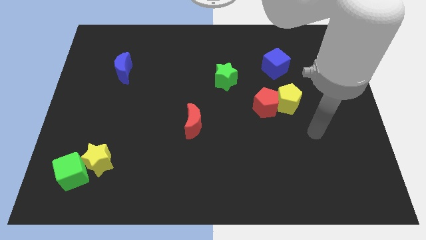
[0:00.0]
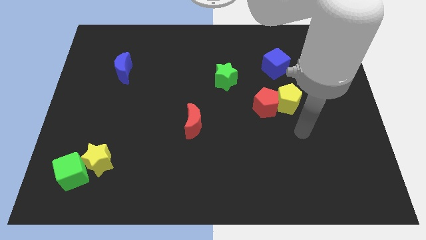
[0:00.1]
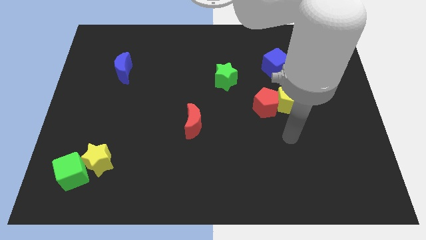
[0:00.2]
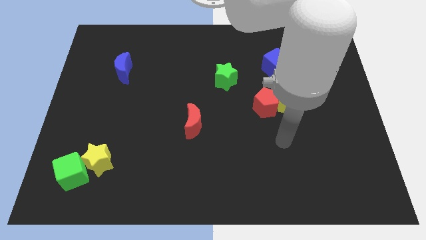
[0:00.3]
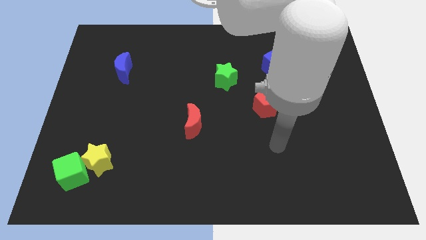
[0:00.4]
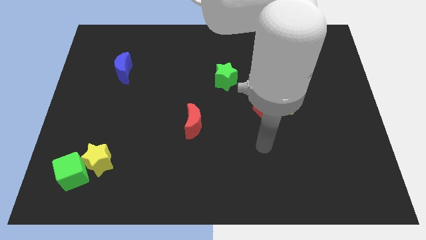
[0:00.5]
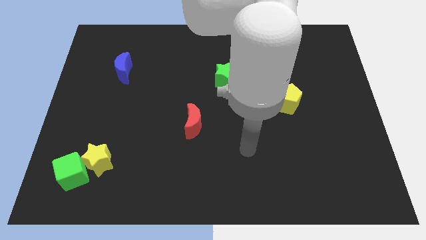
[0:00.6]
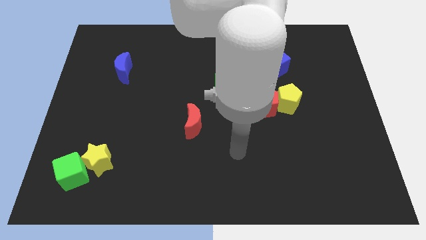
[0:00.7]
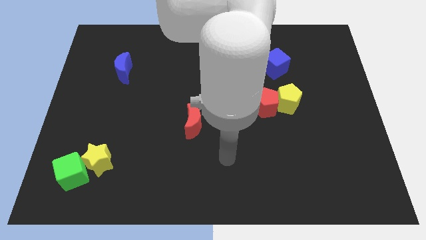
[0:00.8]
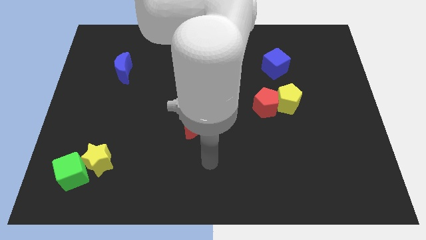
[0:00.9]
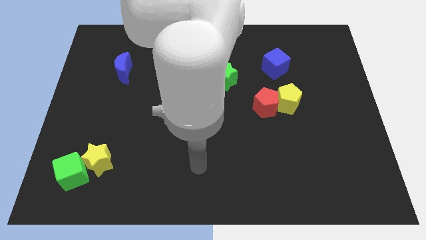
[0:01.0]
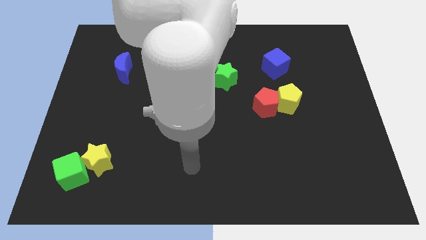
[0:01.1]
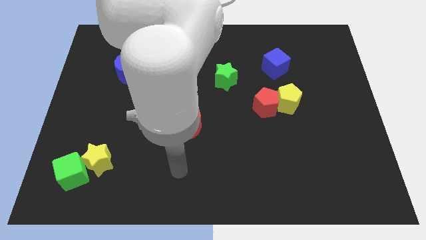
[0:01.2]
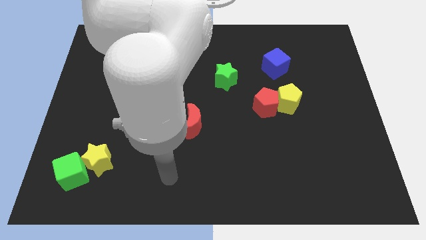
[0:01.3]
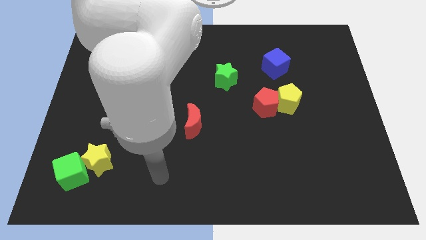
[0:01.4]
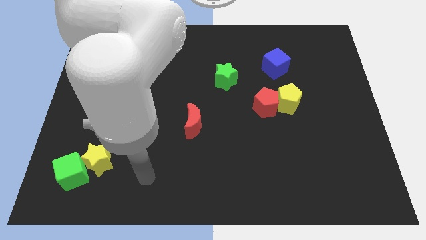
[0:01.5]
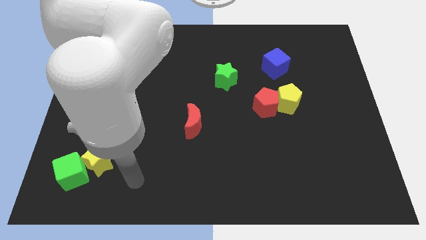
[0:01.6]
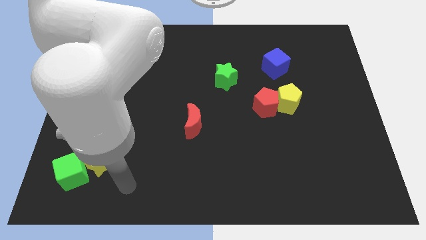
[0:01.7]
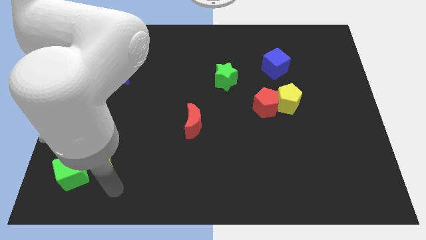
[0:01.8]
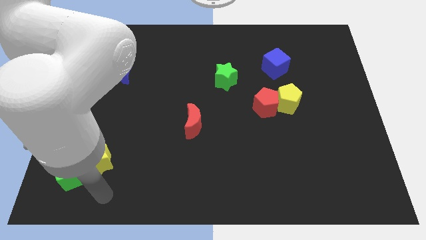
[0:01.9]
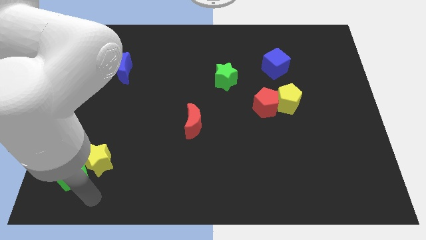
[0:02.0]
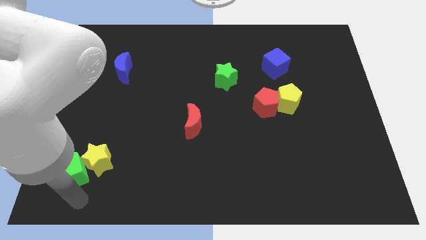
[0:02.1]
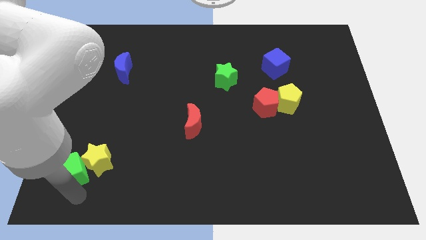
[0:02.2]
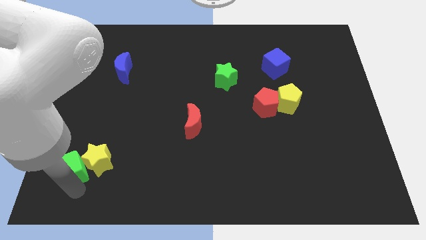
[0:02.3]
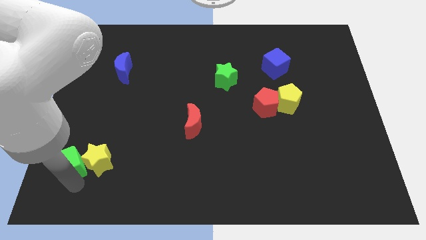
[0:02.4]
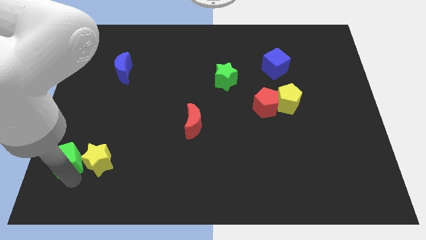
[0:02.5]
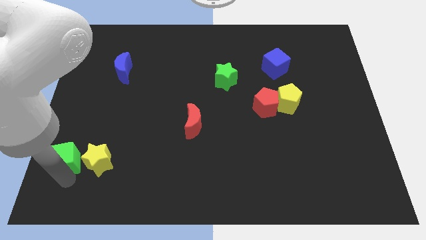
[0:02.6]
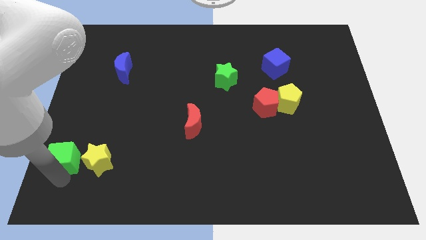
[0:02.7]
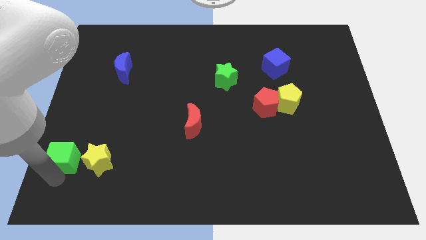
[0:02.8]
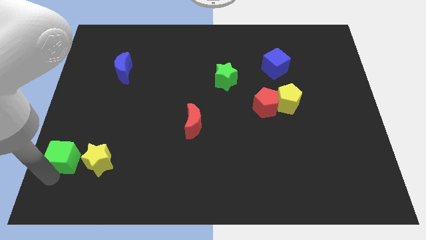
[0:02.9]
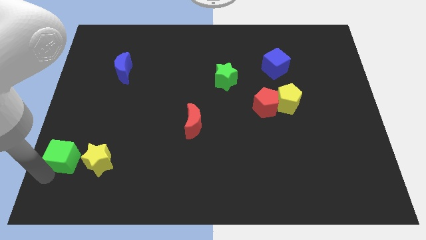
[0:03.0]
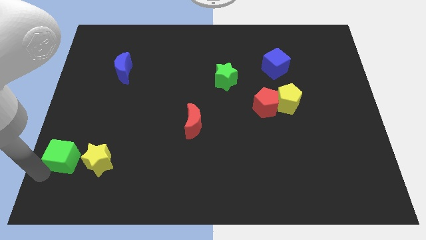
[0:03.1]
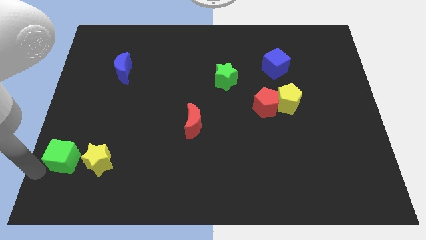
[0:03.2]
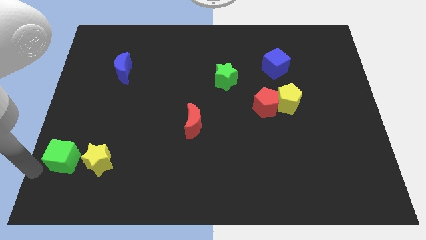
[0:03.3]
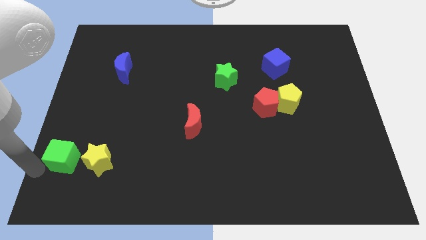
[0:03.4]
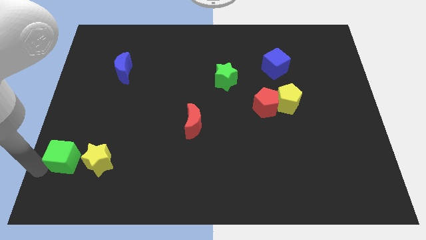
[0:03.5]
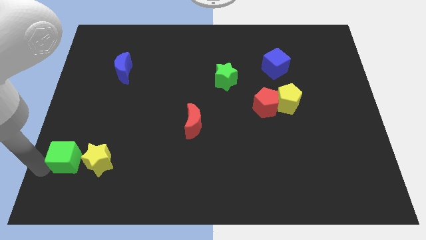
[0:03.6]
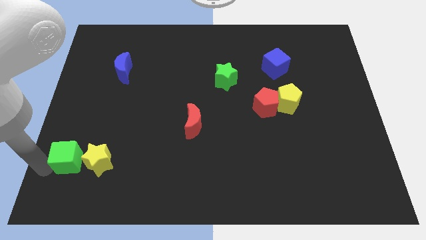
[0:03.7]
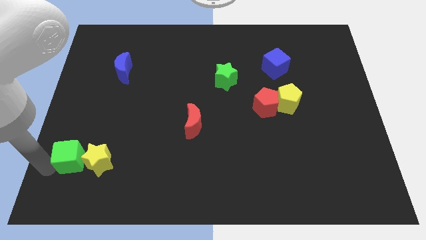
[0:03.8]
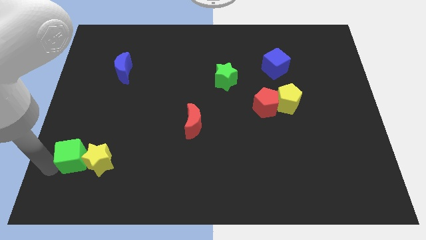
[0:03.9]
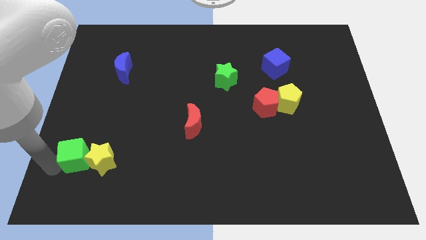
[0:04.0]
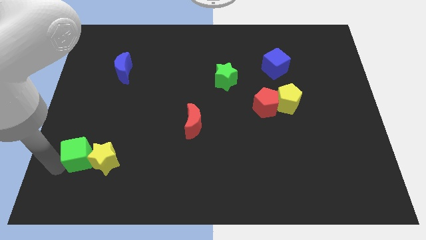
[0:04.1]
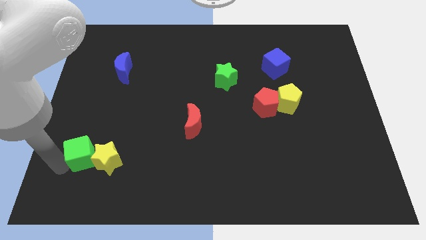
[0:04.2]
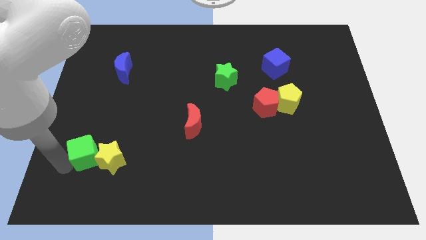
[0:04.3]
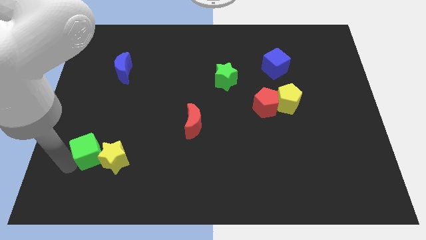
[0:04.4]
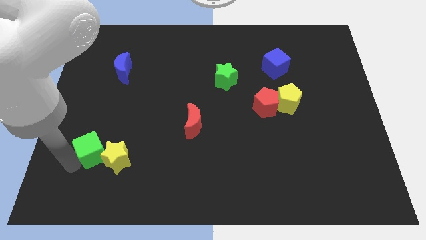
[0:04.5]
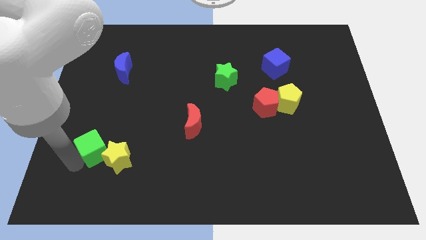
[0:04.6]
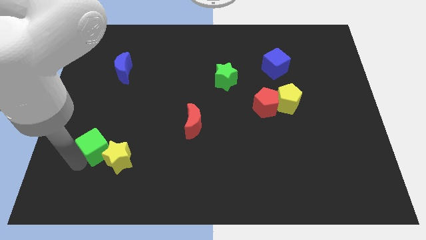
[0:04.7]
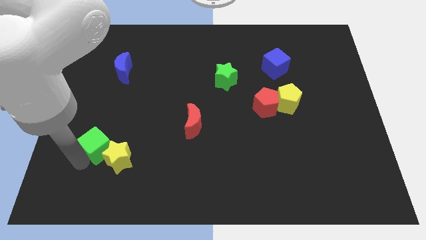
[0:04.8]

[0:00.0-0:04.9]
slide the green cube somewhat up and right diagonally

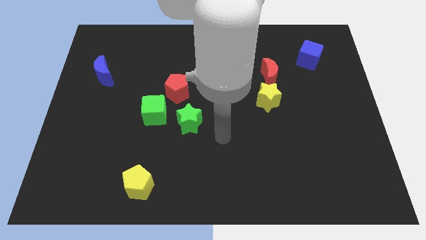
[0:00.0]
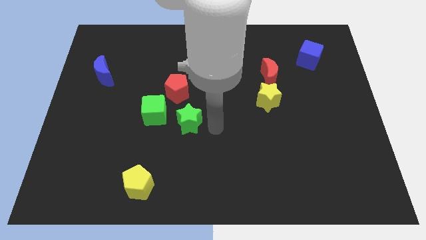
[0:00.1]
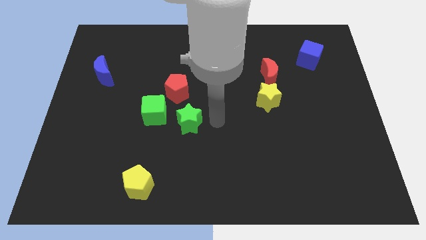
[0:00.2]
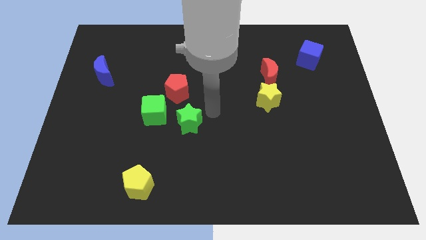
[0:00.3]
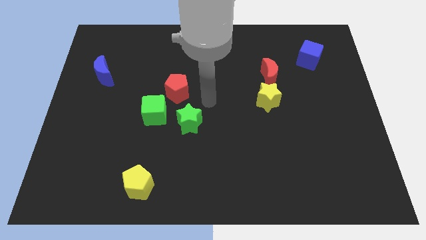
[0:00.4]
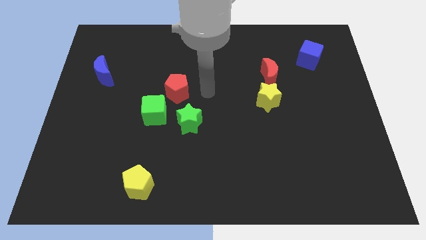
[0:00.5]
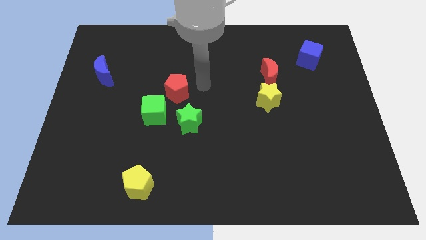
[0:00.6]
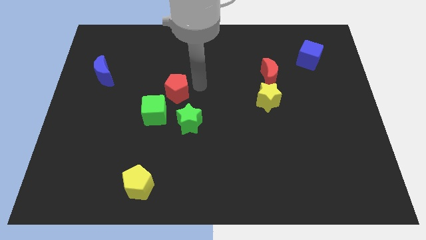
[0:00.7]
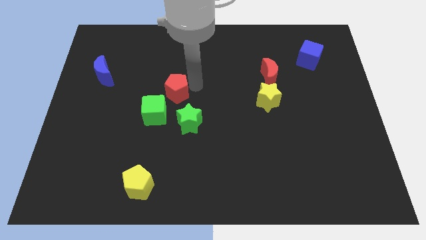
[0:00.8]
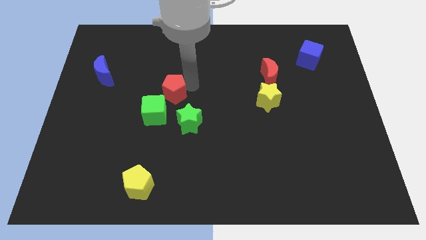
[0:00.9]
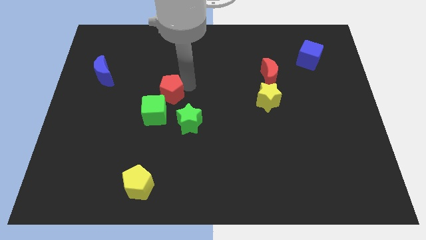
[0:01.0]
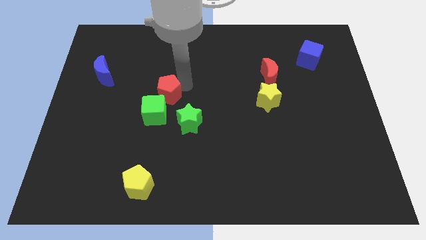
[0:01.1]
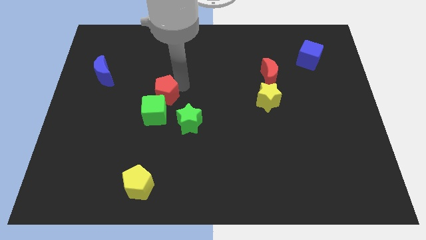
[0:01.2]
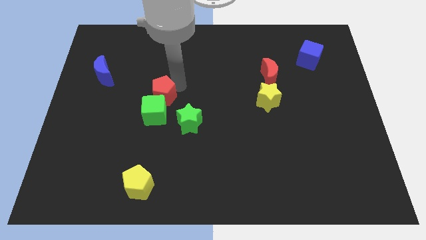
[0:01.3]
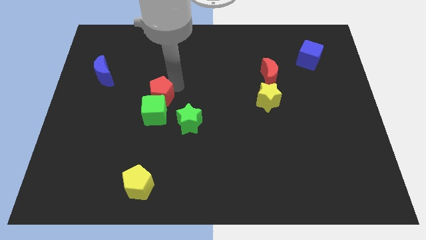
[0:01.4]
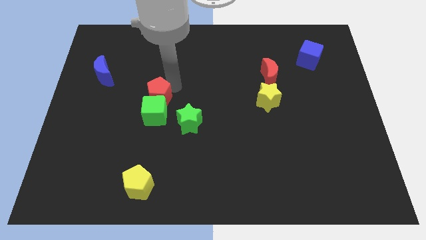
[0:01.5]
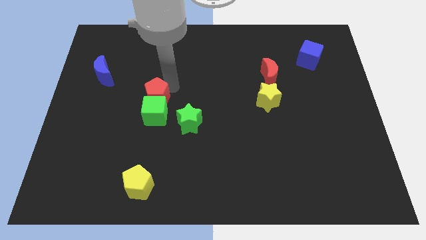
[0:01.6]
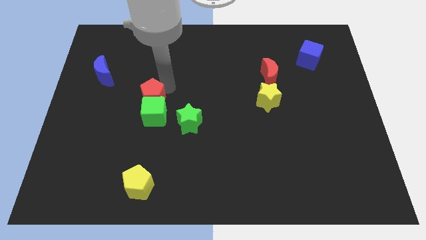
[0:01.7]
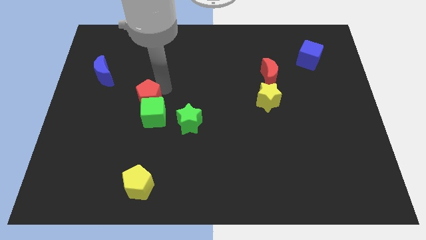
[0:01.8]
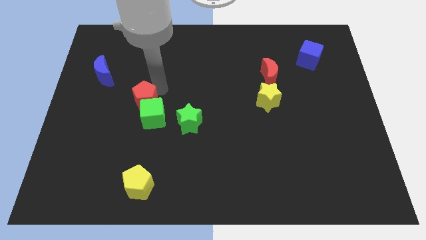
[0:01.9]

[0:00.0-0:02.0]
slightly push the red pentagon down and to the left

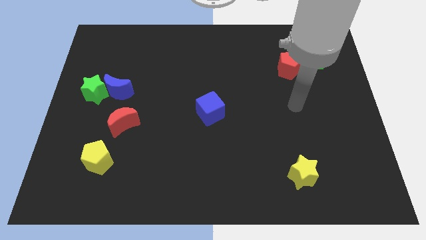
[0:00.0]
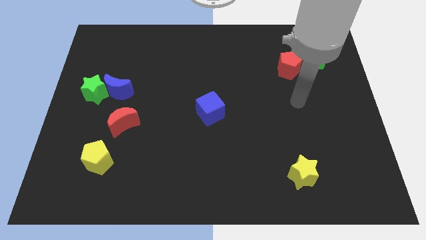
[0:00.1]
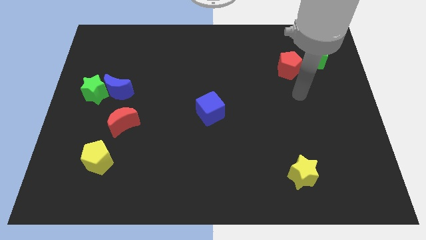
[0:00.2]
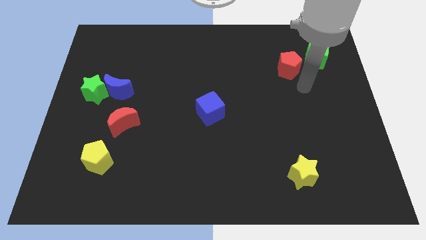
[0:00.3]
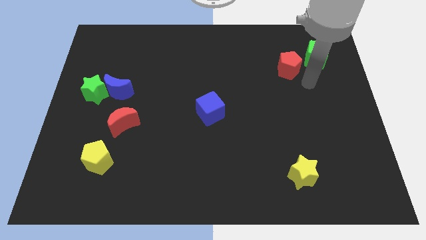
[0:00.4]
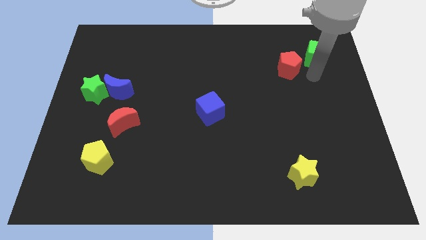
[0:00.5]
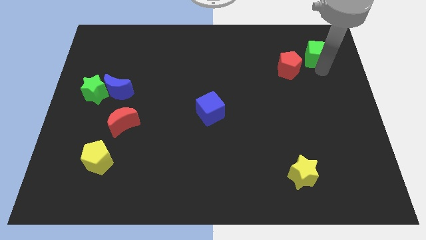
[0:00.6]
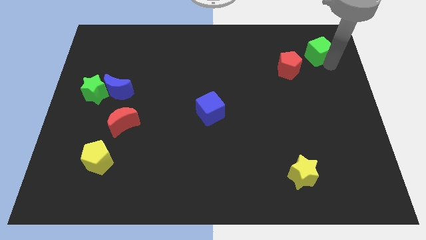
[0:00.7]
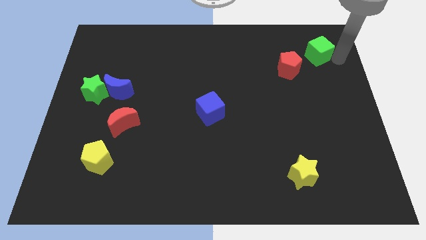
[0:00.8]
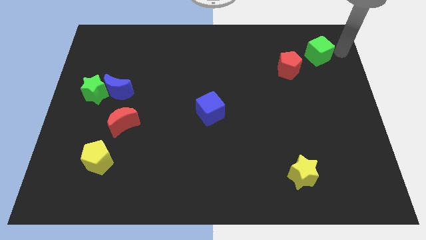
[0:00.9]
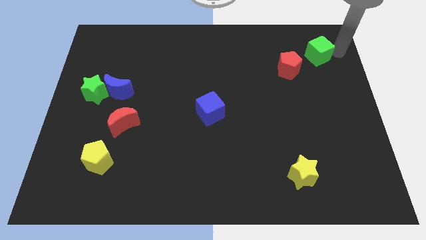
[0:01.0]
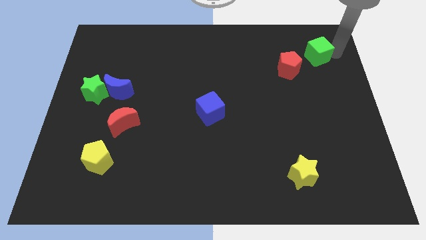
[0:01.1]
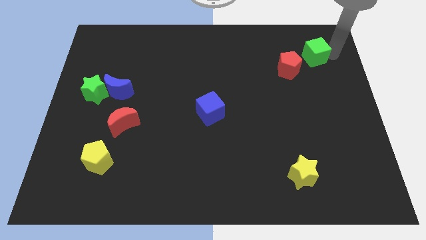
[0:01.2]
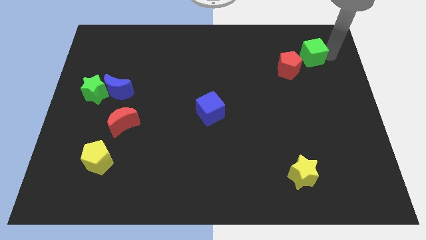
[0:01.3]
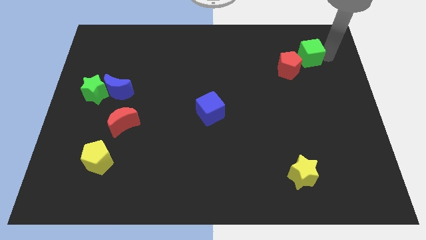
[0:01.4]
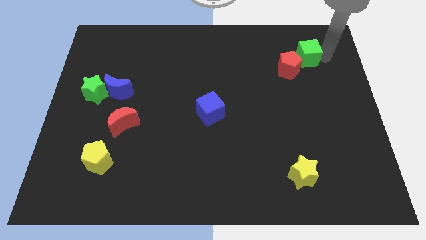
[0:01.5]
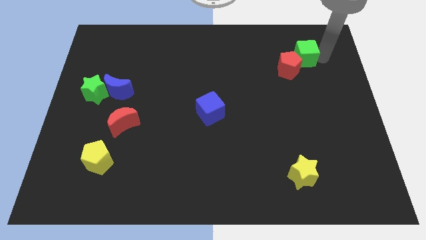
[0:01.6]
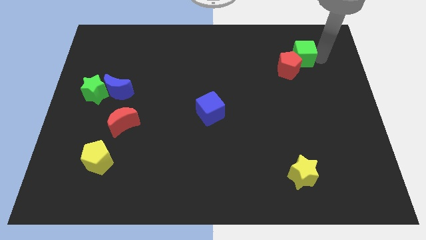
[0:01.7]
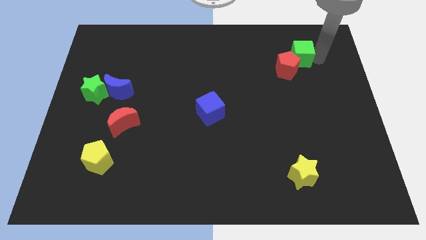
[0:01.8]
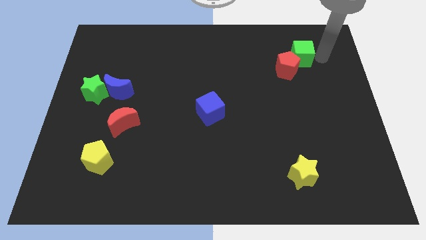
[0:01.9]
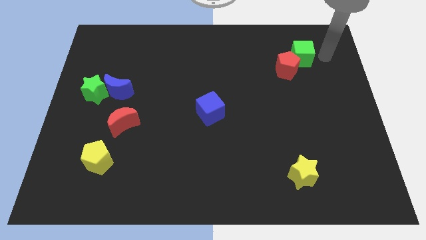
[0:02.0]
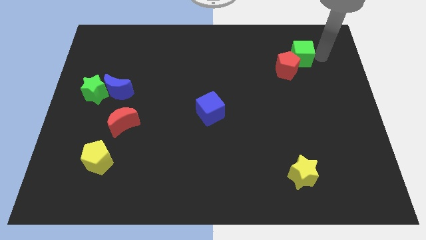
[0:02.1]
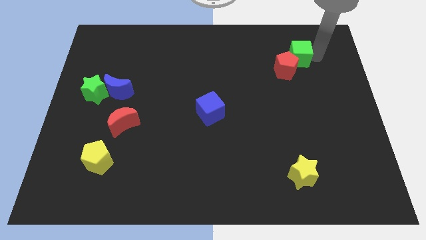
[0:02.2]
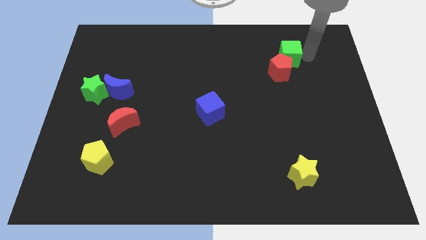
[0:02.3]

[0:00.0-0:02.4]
move the green cube to the left slightly
